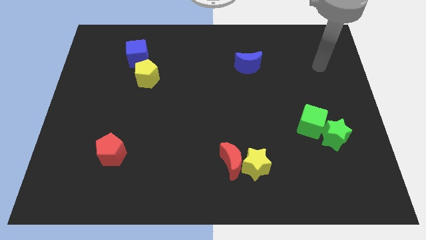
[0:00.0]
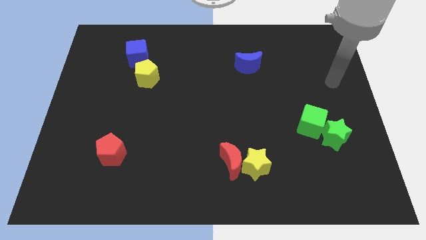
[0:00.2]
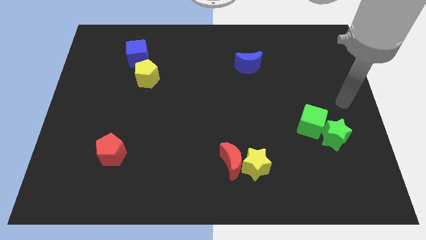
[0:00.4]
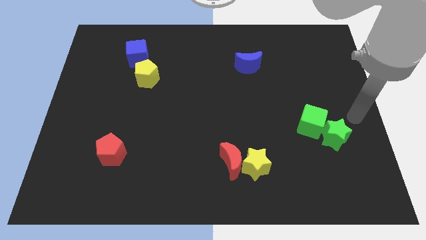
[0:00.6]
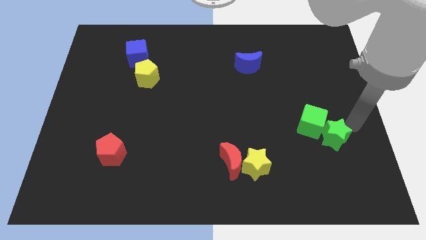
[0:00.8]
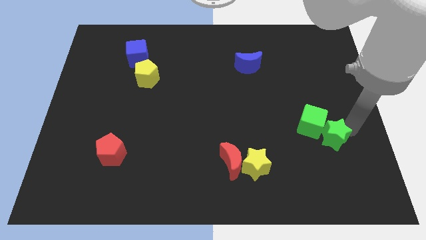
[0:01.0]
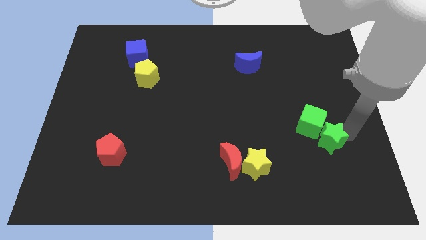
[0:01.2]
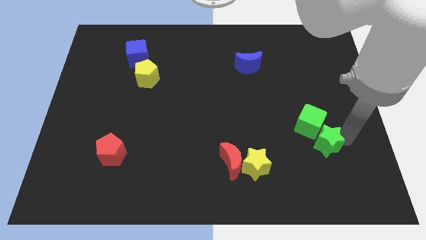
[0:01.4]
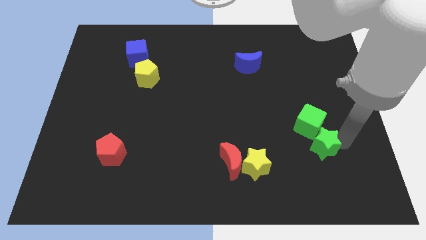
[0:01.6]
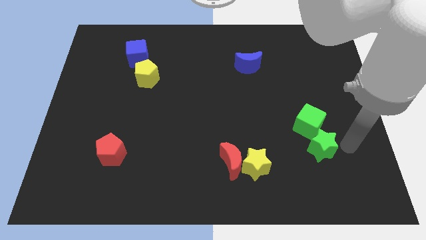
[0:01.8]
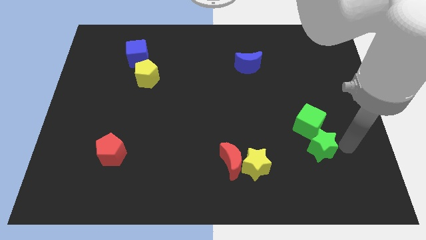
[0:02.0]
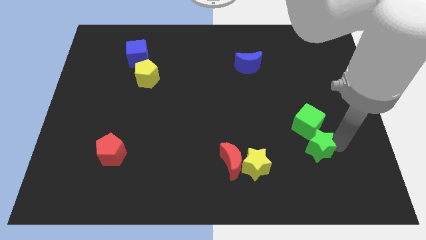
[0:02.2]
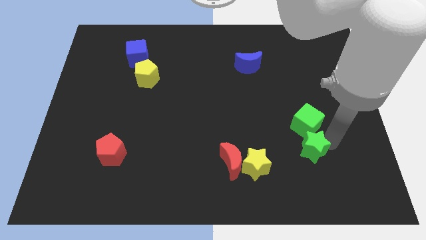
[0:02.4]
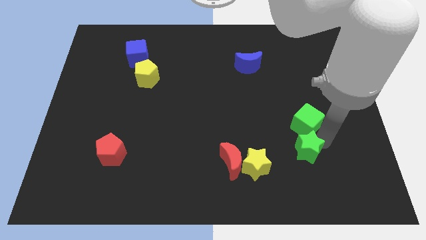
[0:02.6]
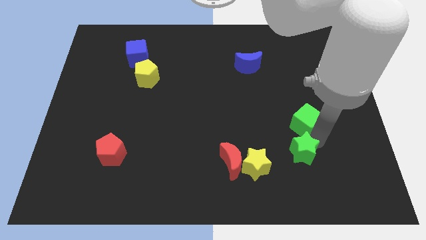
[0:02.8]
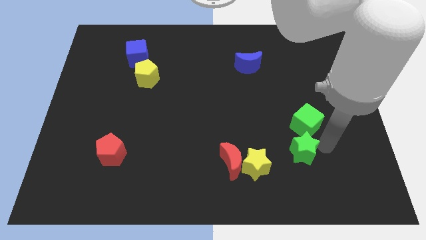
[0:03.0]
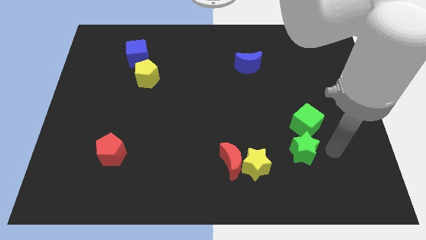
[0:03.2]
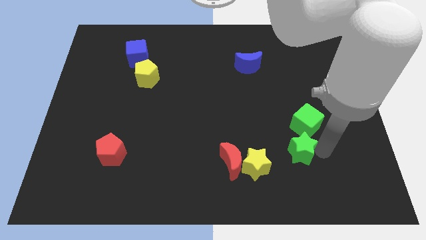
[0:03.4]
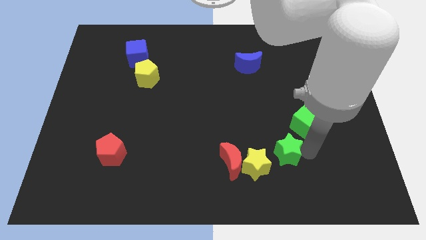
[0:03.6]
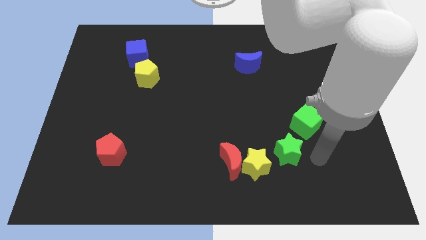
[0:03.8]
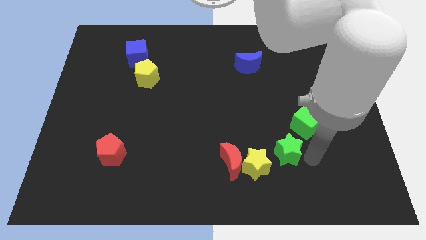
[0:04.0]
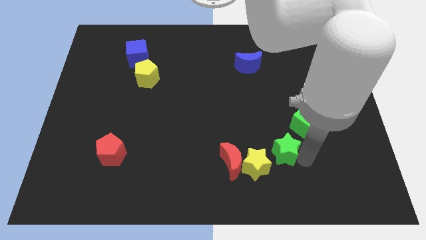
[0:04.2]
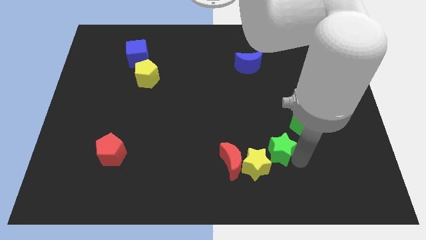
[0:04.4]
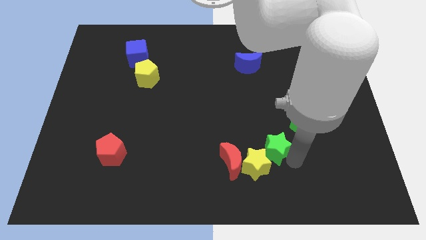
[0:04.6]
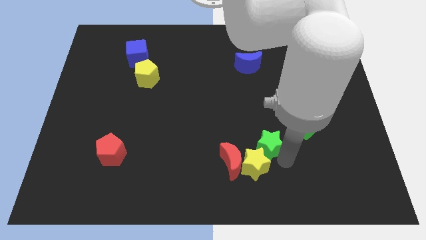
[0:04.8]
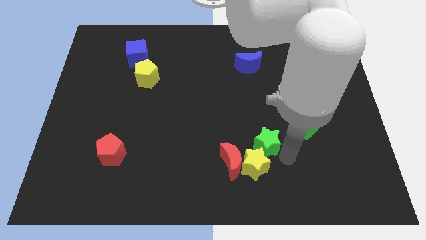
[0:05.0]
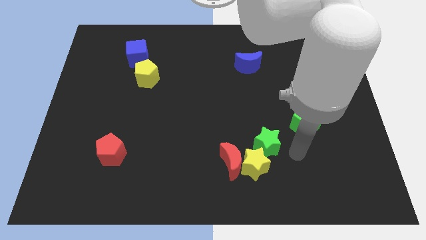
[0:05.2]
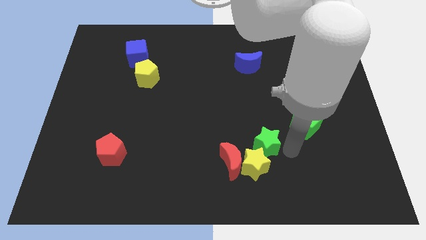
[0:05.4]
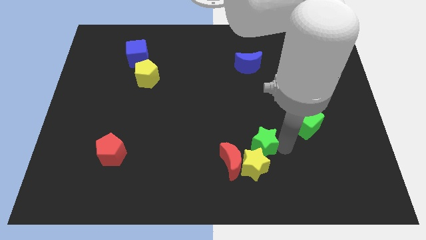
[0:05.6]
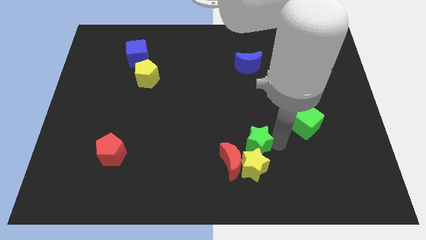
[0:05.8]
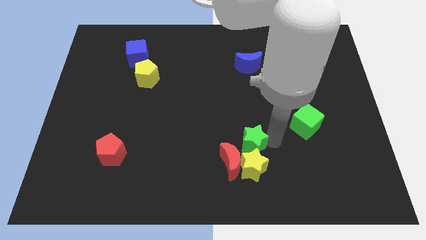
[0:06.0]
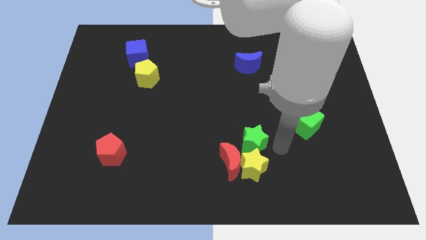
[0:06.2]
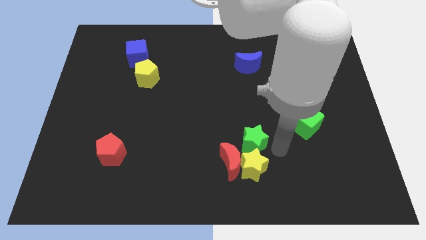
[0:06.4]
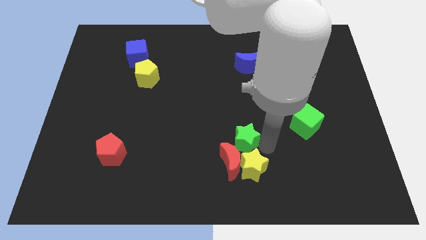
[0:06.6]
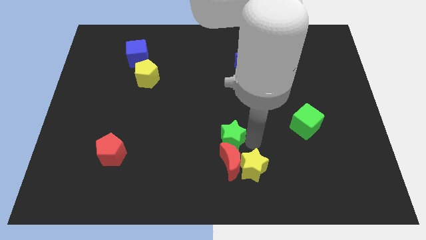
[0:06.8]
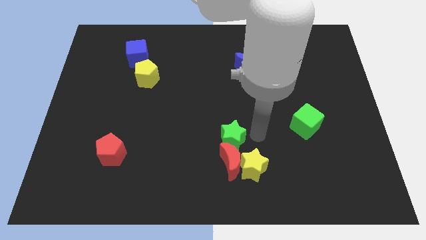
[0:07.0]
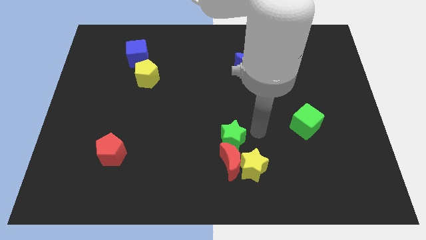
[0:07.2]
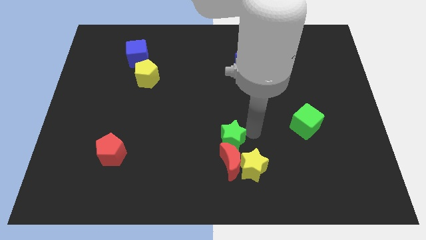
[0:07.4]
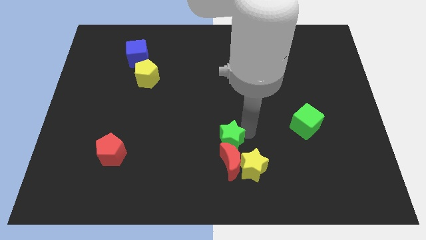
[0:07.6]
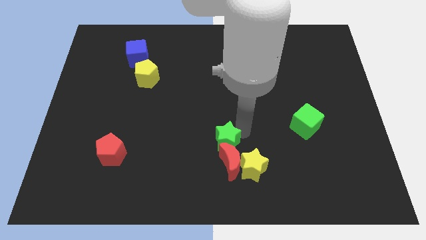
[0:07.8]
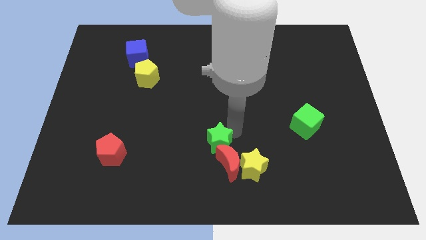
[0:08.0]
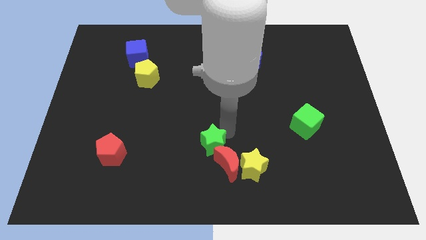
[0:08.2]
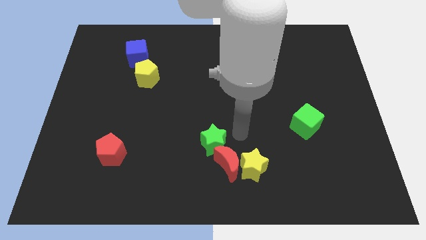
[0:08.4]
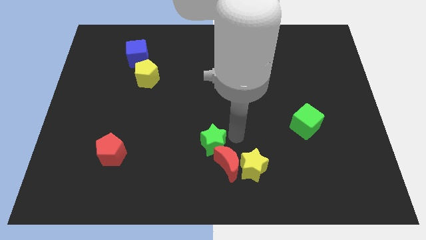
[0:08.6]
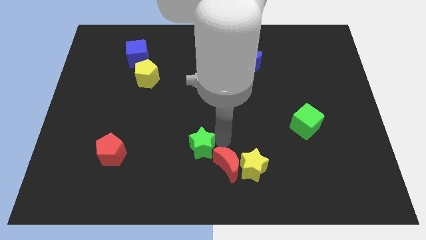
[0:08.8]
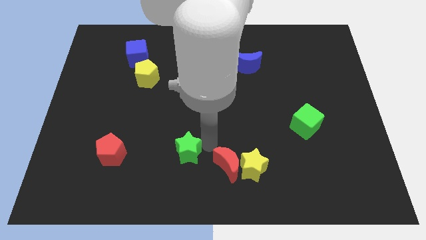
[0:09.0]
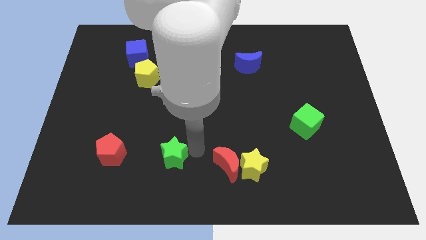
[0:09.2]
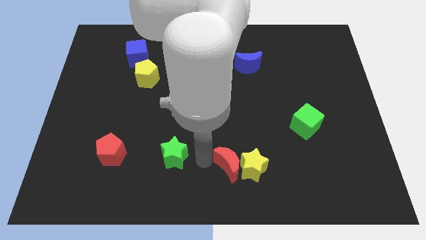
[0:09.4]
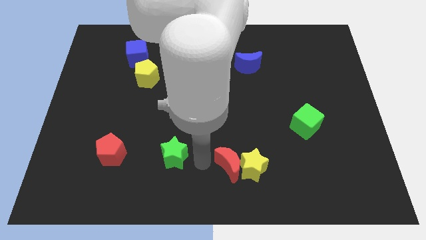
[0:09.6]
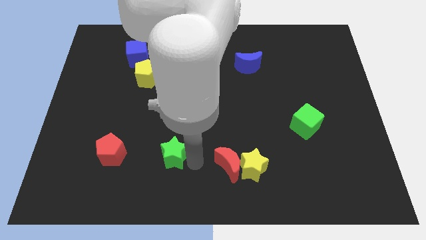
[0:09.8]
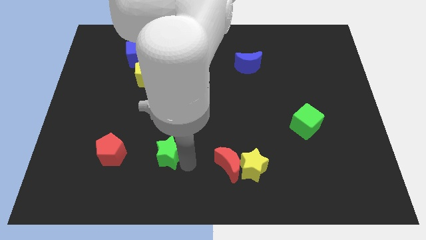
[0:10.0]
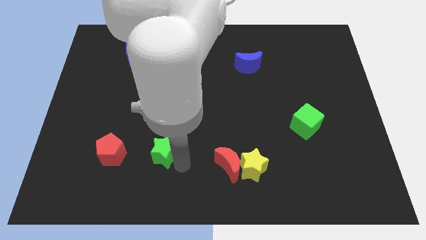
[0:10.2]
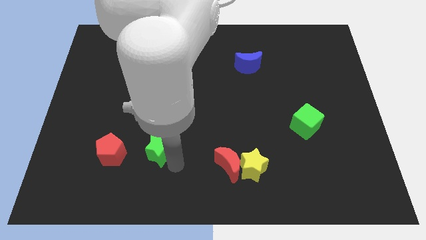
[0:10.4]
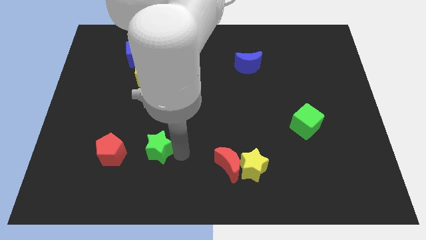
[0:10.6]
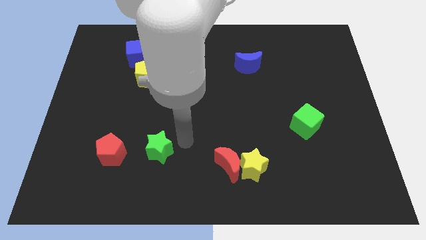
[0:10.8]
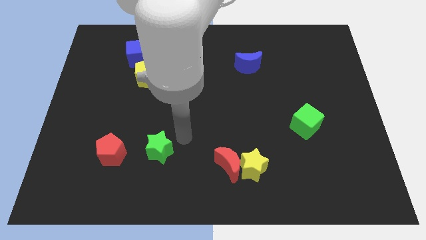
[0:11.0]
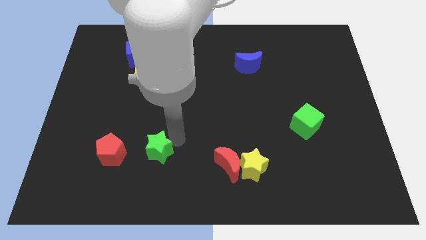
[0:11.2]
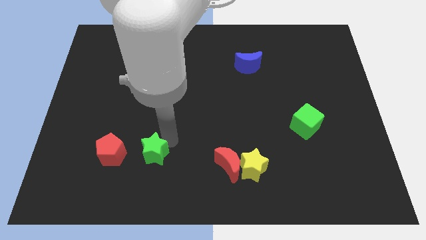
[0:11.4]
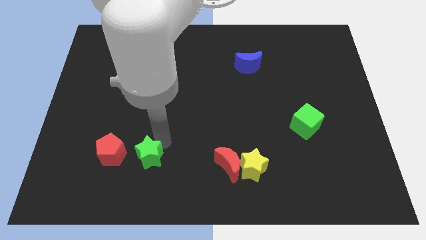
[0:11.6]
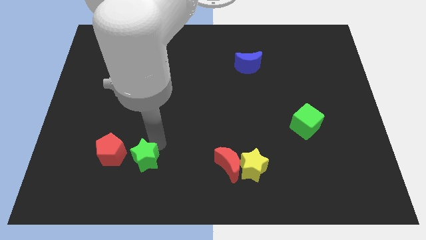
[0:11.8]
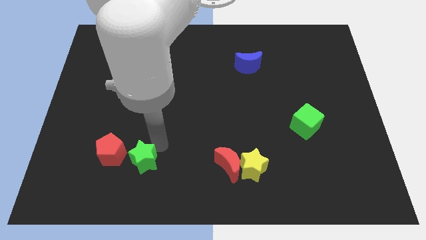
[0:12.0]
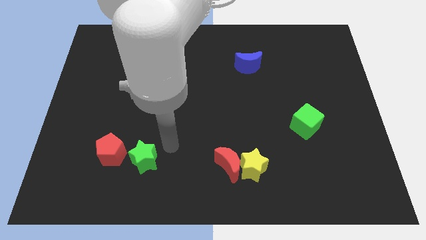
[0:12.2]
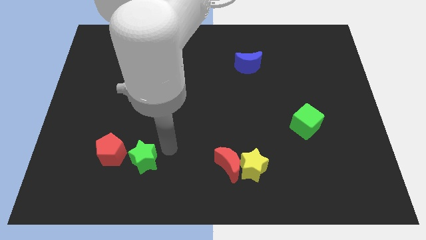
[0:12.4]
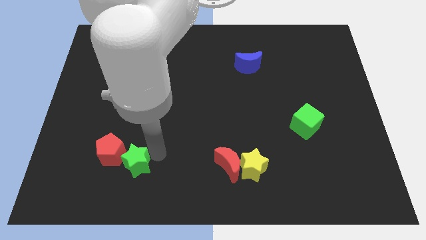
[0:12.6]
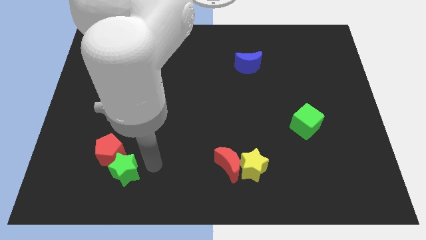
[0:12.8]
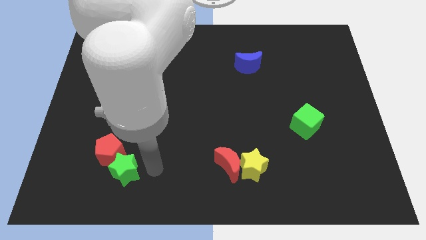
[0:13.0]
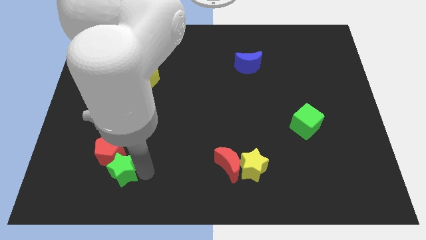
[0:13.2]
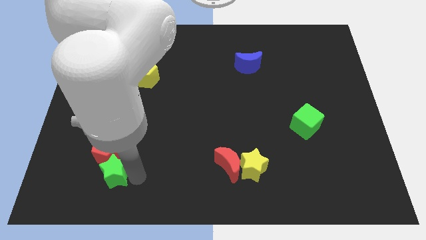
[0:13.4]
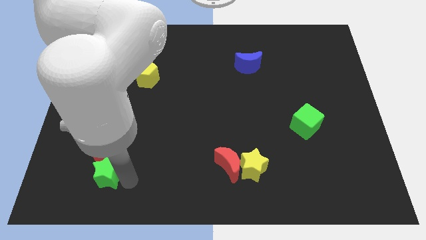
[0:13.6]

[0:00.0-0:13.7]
push the green star to the bottom left of the red pentagon

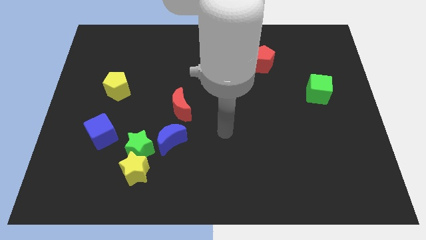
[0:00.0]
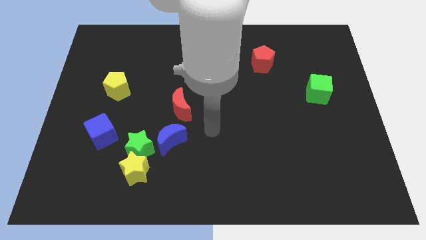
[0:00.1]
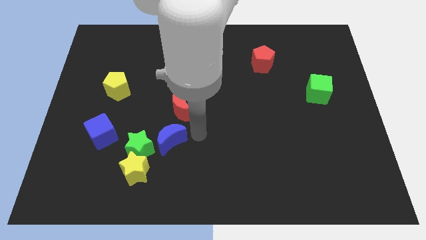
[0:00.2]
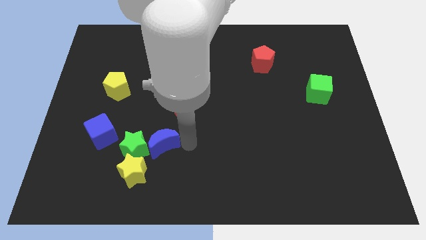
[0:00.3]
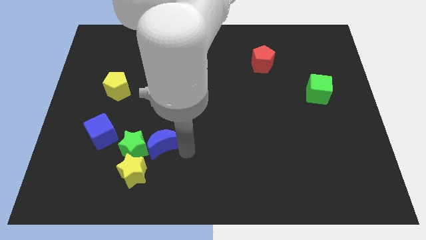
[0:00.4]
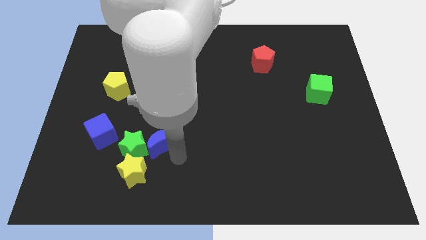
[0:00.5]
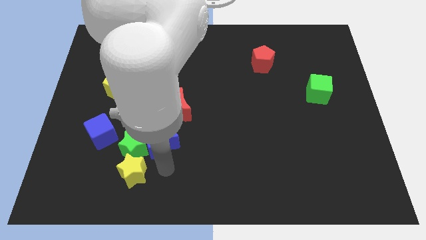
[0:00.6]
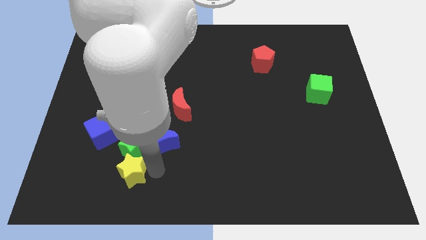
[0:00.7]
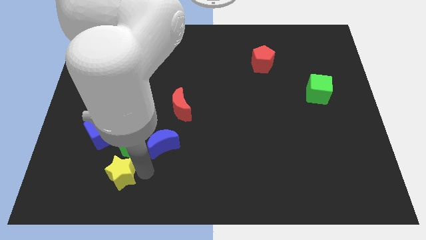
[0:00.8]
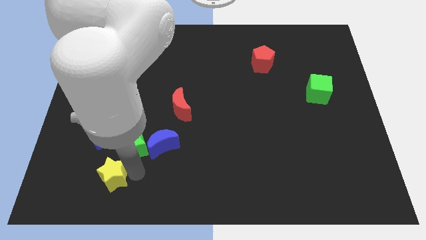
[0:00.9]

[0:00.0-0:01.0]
slide the yellow star to the bottom of the blue cube
